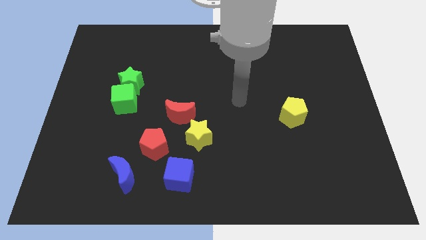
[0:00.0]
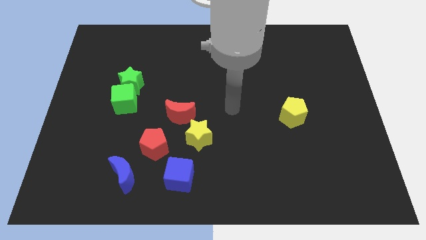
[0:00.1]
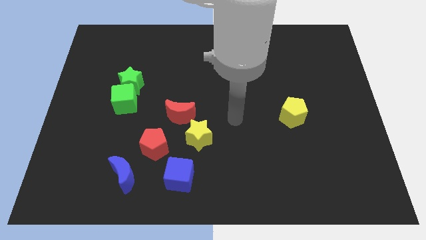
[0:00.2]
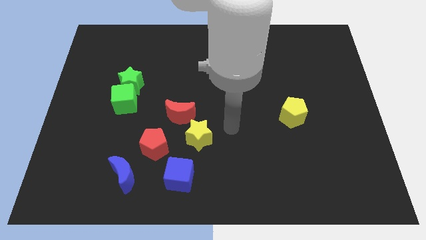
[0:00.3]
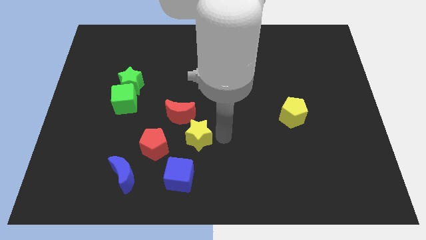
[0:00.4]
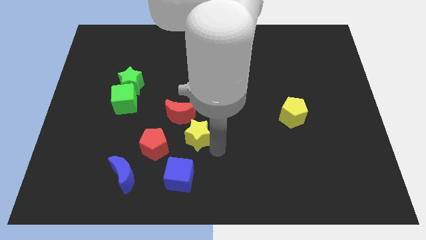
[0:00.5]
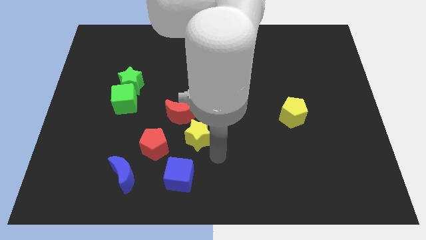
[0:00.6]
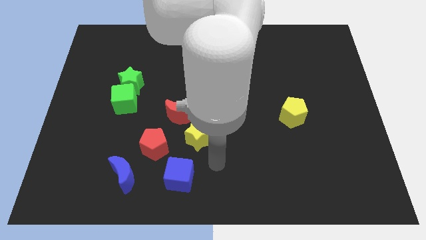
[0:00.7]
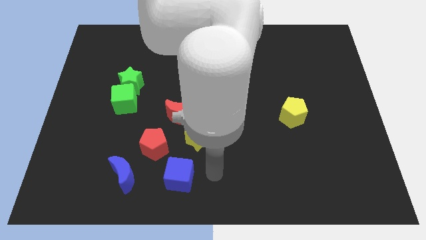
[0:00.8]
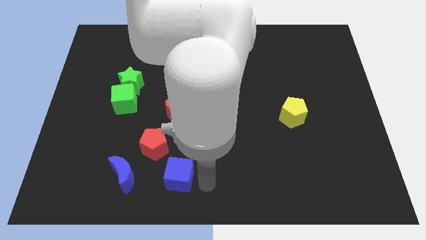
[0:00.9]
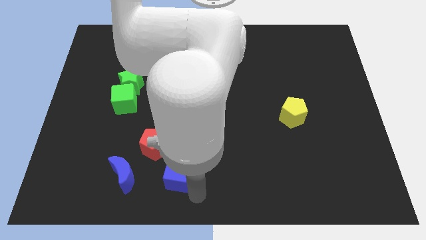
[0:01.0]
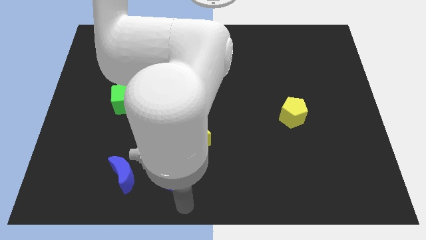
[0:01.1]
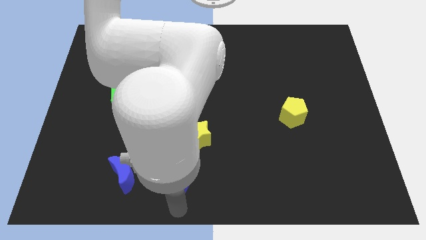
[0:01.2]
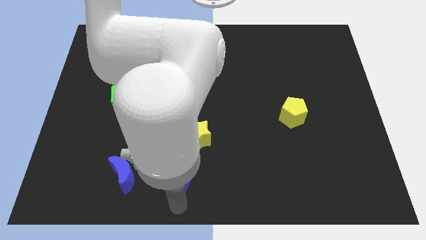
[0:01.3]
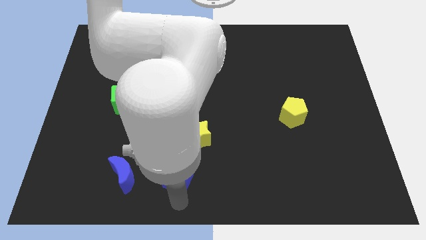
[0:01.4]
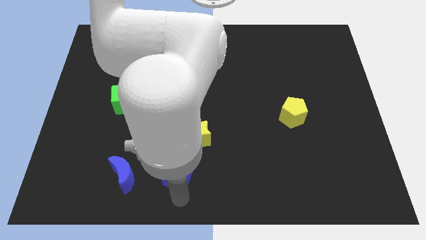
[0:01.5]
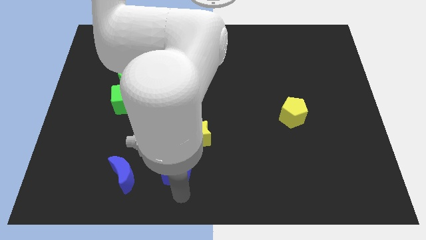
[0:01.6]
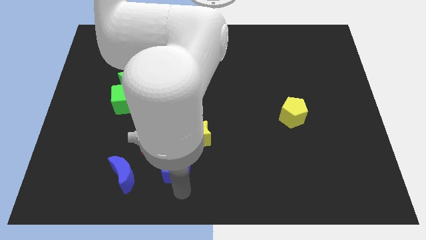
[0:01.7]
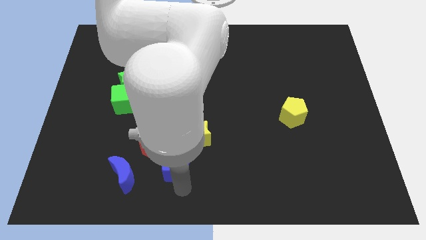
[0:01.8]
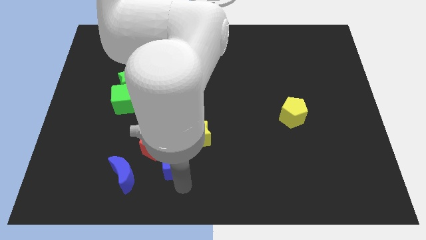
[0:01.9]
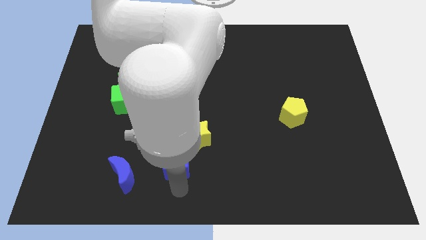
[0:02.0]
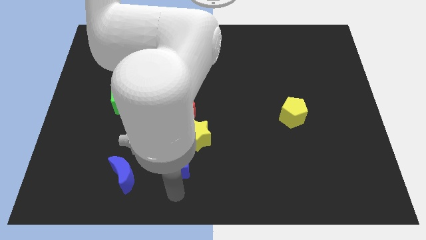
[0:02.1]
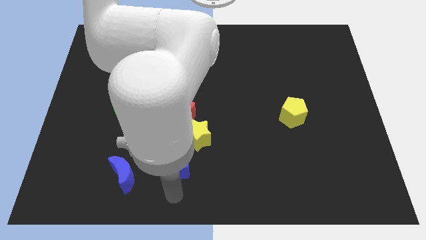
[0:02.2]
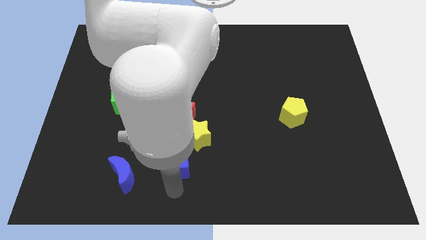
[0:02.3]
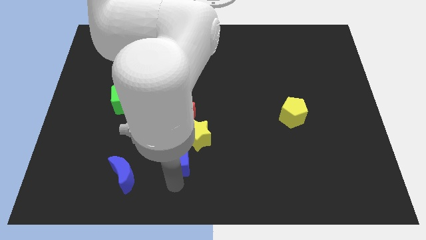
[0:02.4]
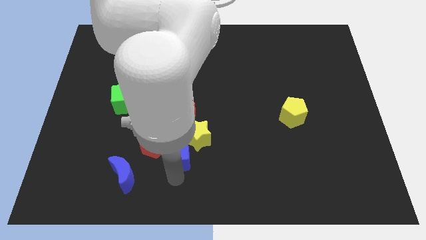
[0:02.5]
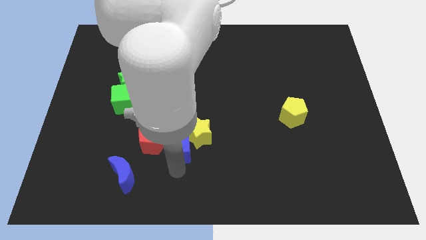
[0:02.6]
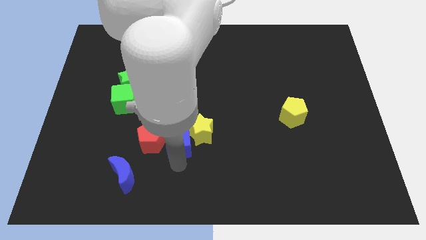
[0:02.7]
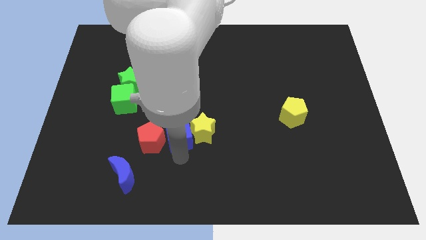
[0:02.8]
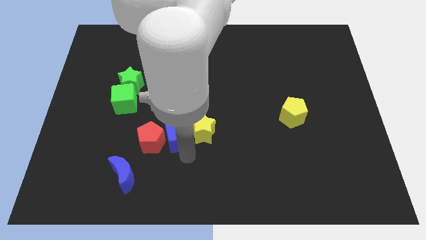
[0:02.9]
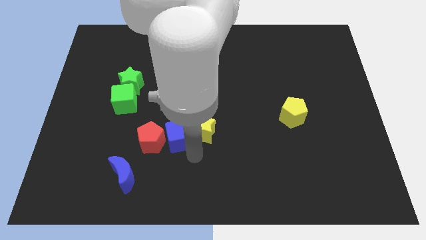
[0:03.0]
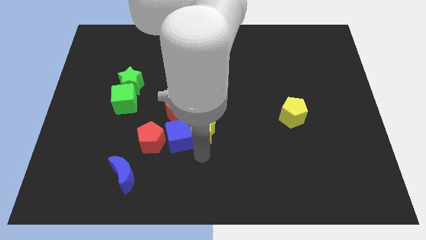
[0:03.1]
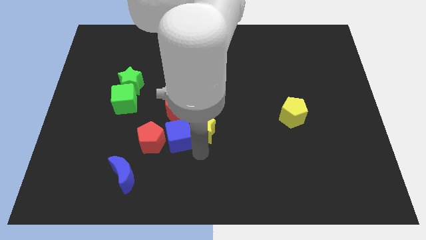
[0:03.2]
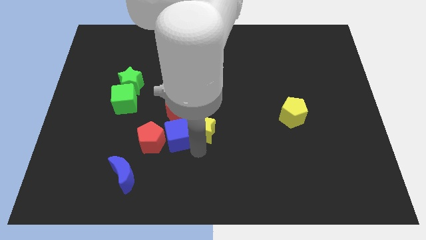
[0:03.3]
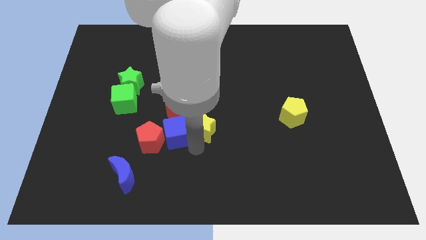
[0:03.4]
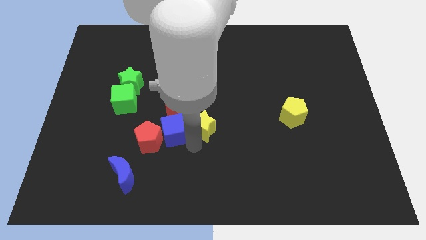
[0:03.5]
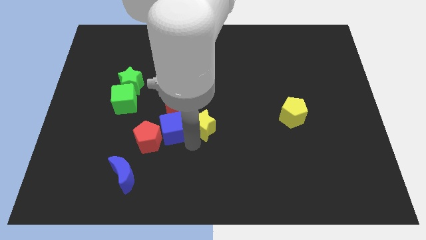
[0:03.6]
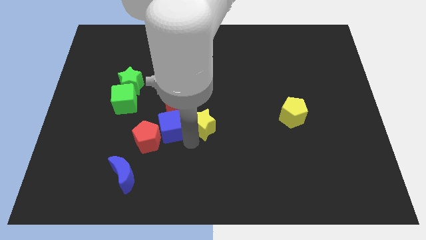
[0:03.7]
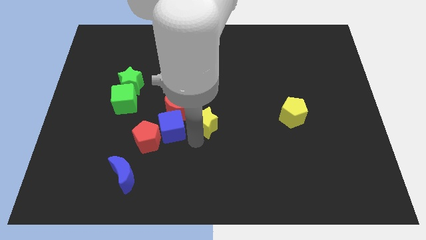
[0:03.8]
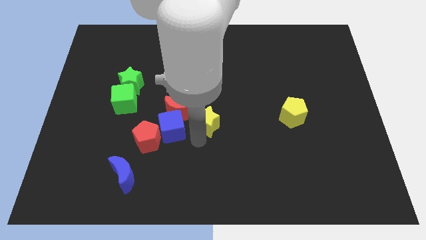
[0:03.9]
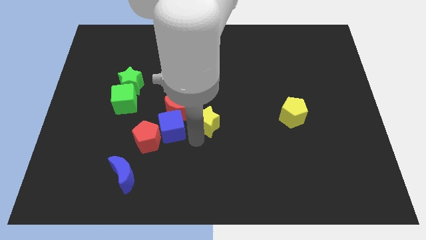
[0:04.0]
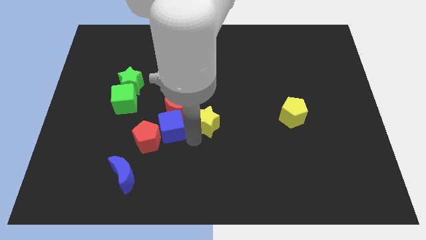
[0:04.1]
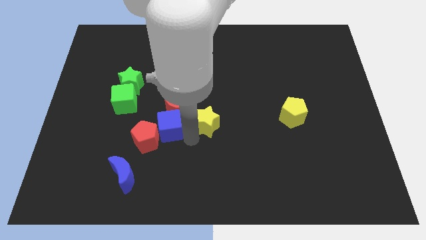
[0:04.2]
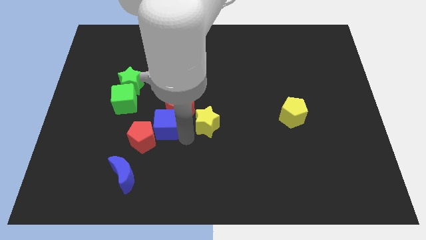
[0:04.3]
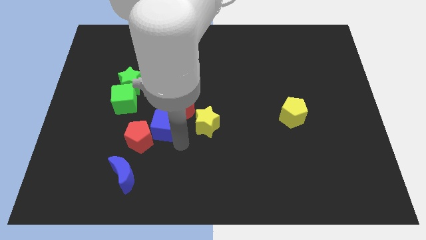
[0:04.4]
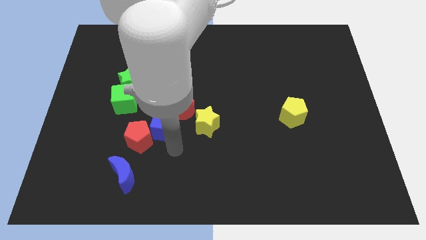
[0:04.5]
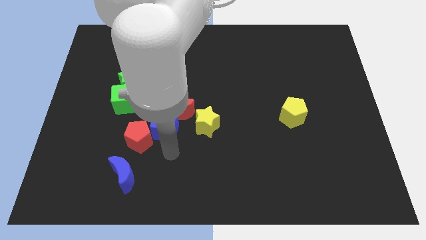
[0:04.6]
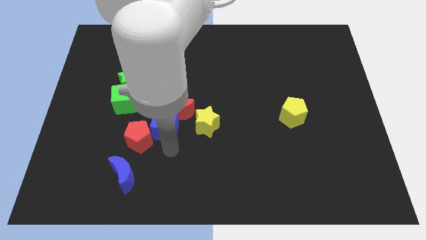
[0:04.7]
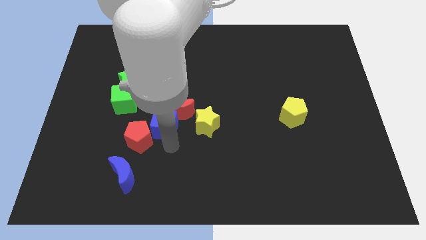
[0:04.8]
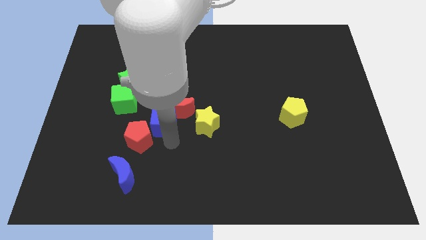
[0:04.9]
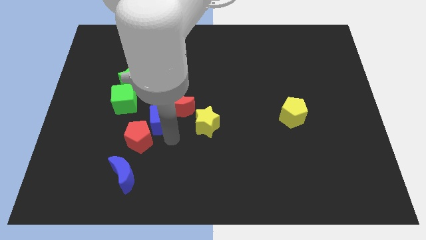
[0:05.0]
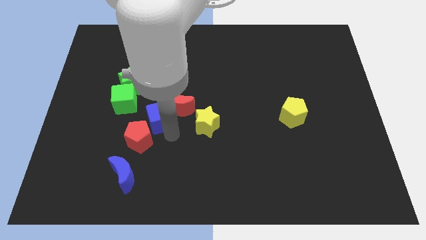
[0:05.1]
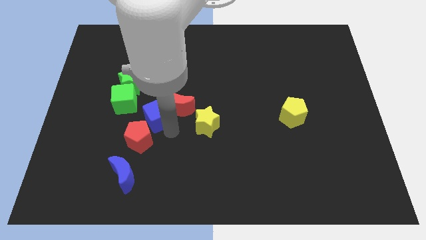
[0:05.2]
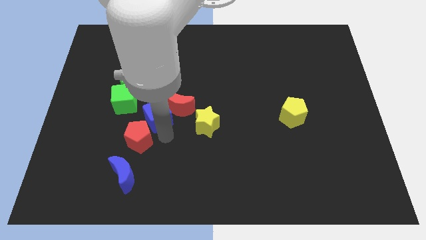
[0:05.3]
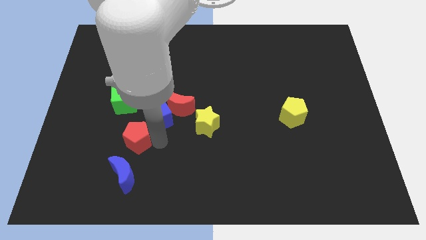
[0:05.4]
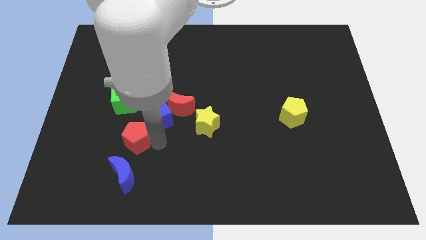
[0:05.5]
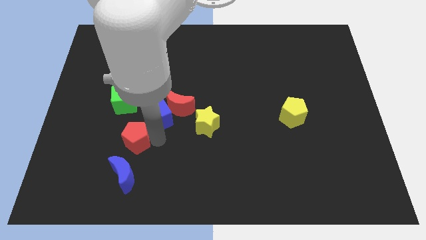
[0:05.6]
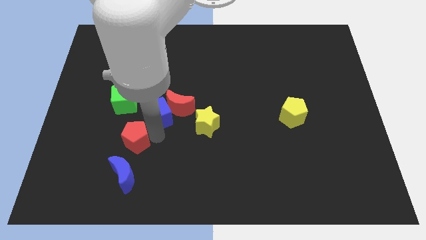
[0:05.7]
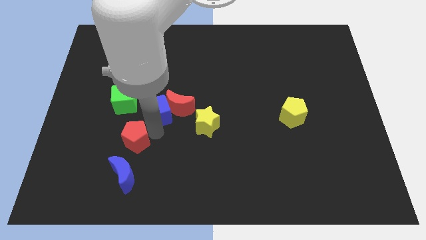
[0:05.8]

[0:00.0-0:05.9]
push the blue cube diagonally up and to the left of the red moon

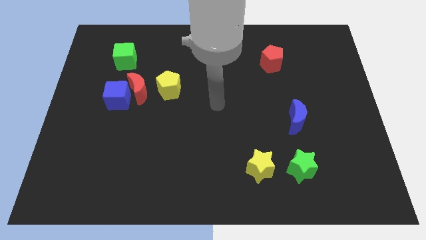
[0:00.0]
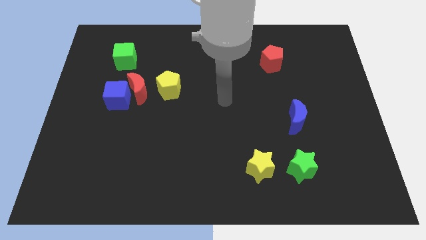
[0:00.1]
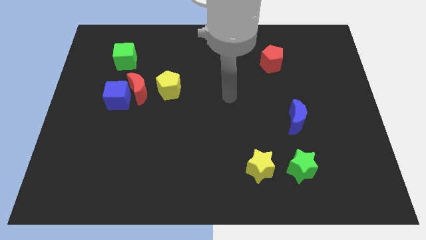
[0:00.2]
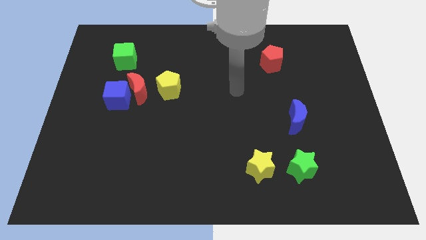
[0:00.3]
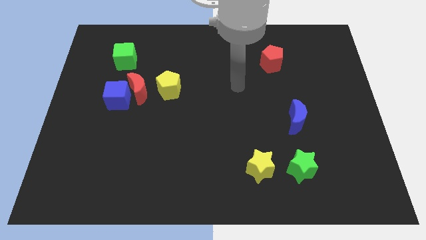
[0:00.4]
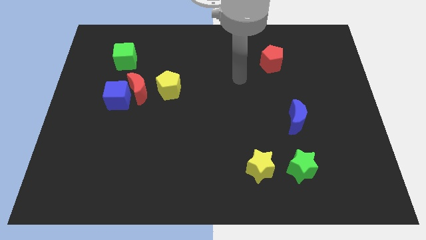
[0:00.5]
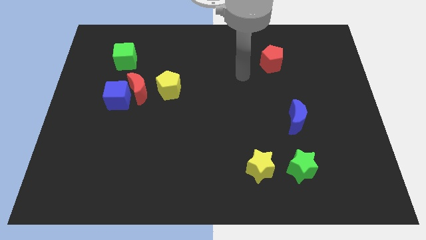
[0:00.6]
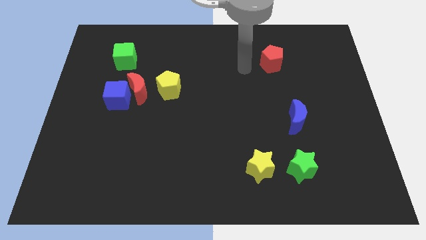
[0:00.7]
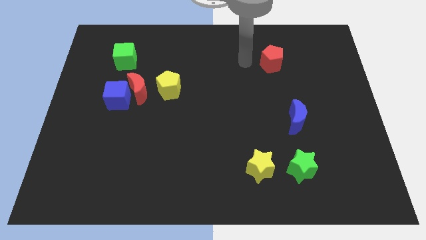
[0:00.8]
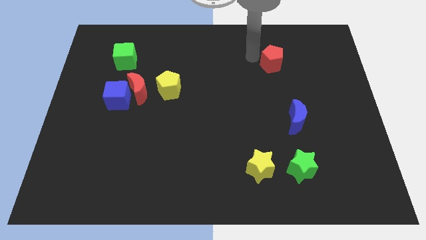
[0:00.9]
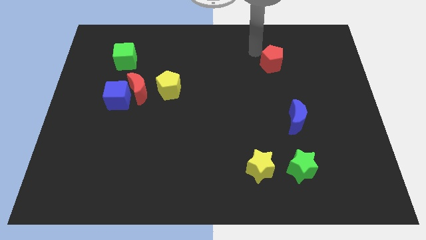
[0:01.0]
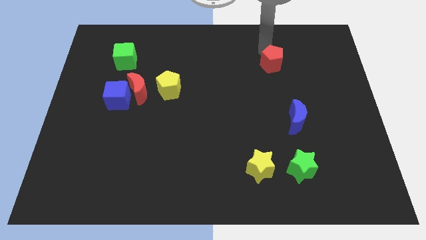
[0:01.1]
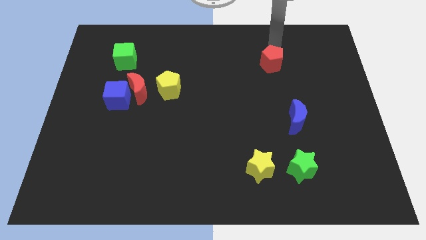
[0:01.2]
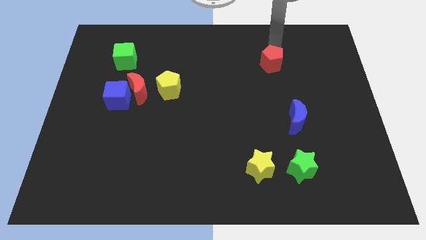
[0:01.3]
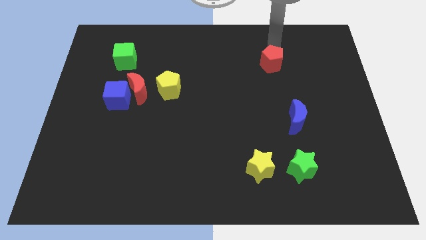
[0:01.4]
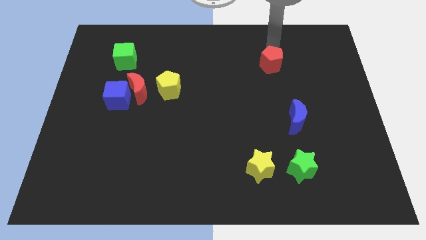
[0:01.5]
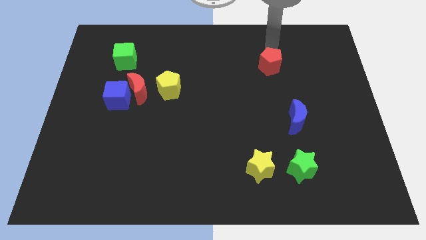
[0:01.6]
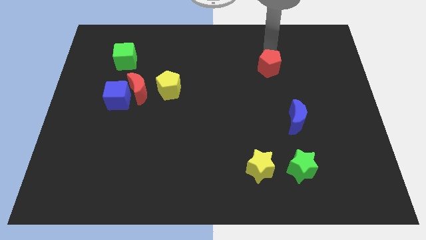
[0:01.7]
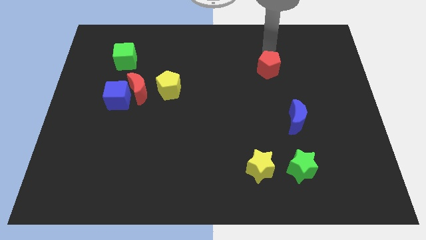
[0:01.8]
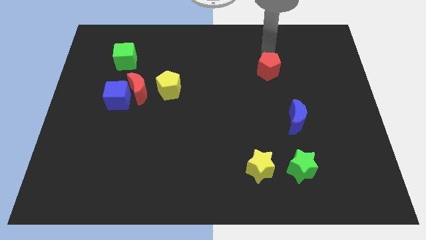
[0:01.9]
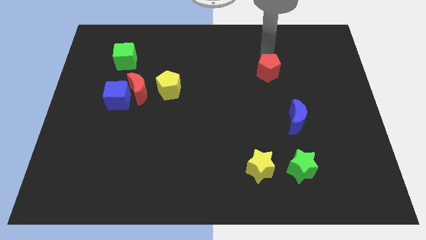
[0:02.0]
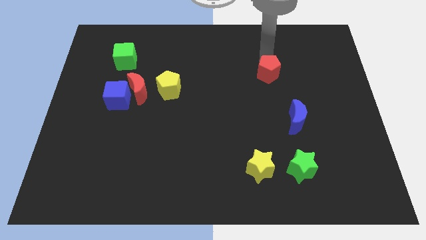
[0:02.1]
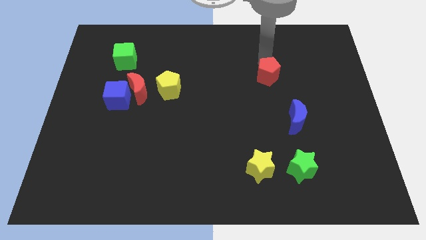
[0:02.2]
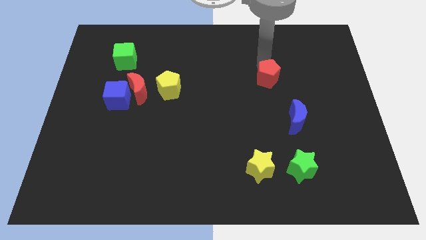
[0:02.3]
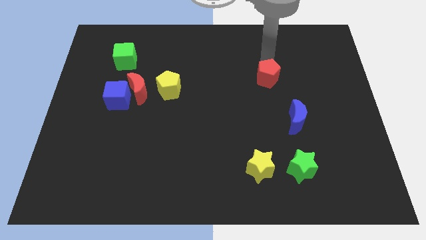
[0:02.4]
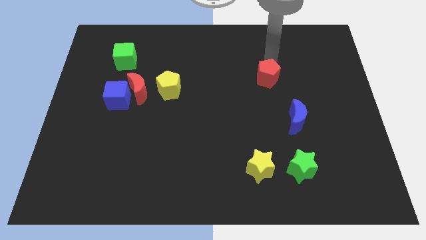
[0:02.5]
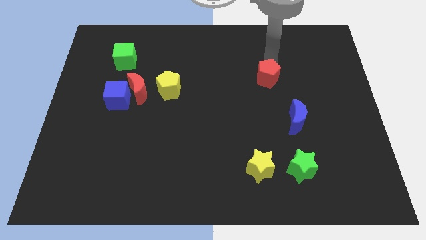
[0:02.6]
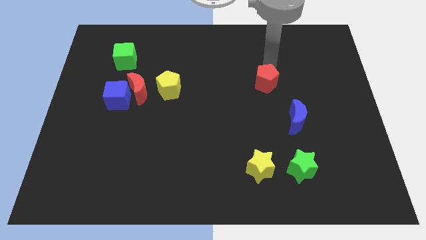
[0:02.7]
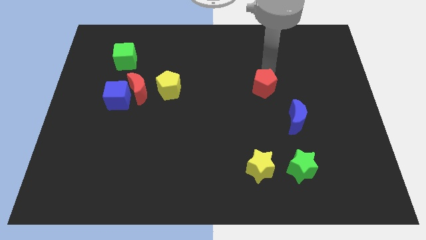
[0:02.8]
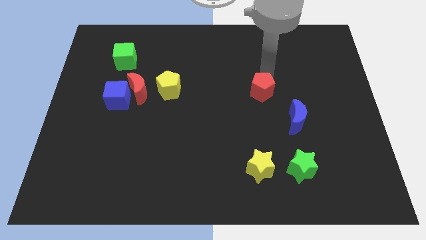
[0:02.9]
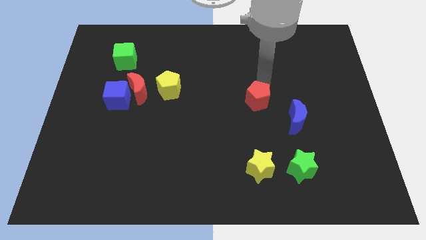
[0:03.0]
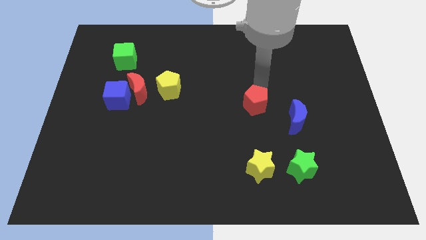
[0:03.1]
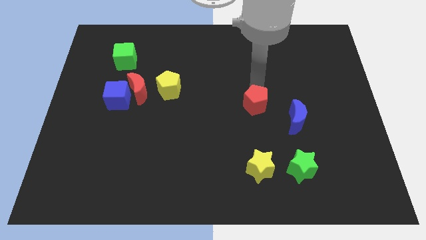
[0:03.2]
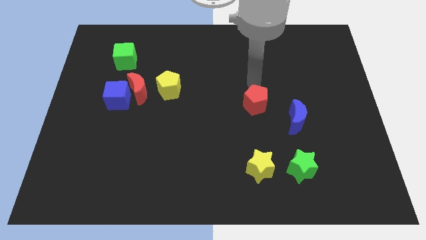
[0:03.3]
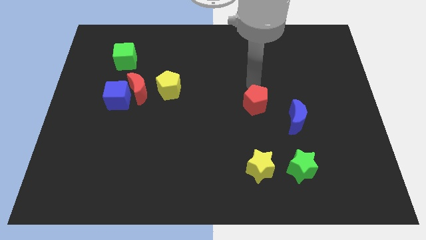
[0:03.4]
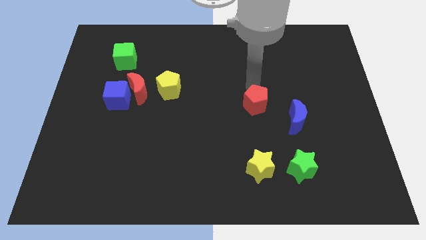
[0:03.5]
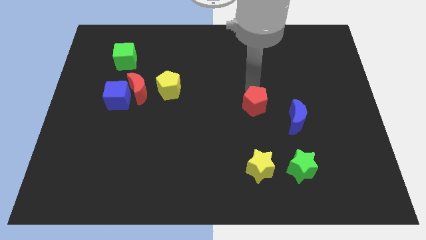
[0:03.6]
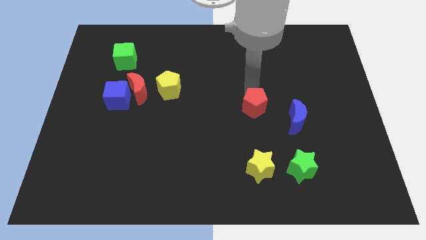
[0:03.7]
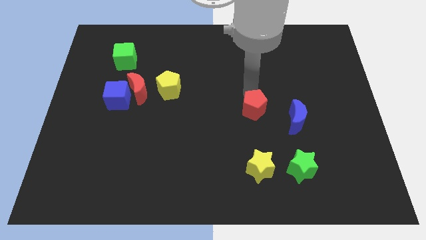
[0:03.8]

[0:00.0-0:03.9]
move the red pentagon above the yellow star
